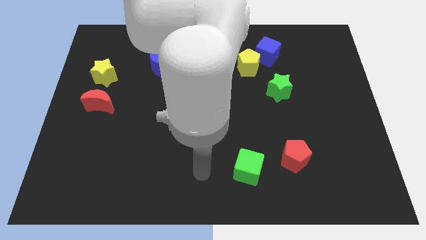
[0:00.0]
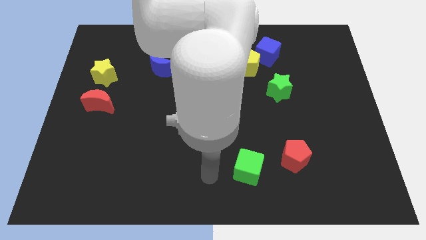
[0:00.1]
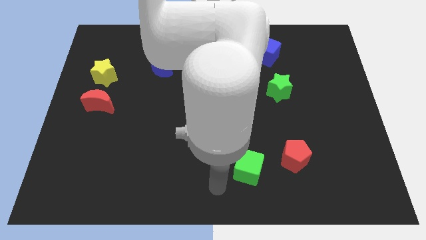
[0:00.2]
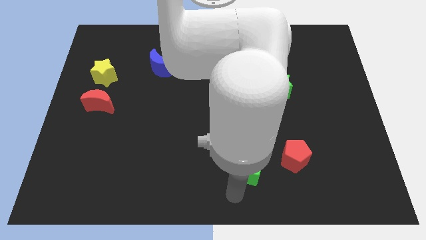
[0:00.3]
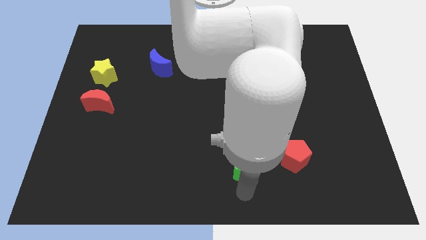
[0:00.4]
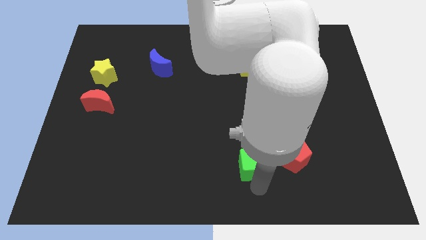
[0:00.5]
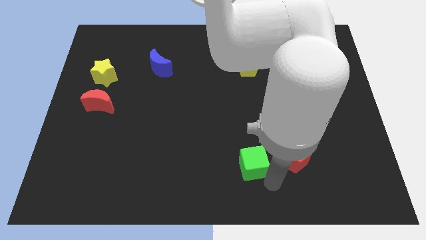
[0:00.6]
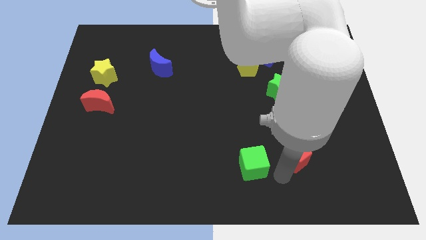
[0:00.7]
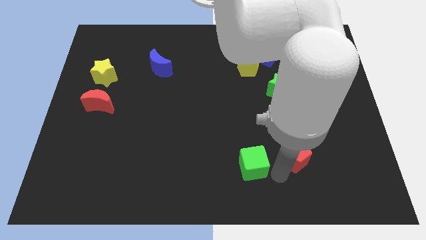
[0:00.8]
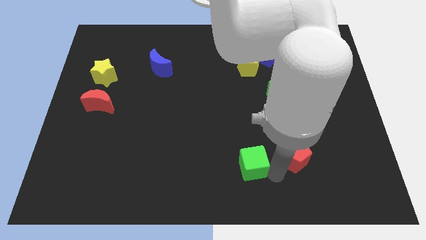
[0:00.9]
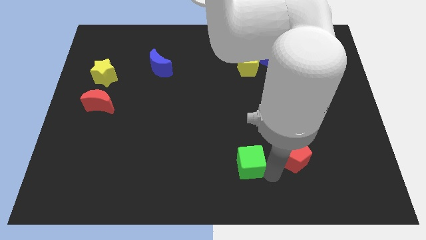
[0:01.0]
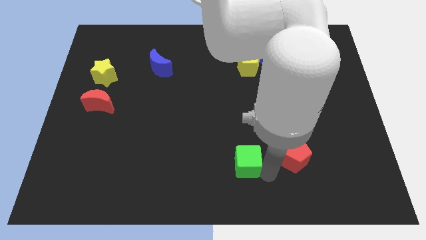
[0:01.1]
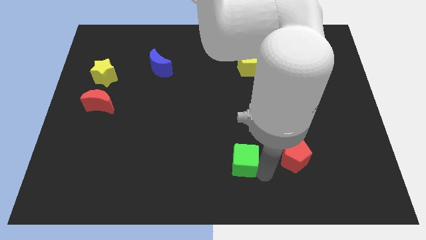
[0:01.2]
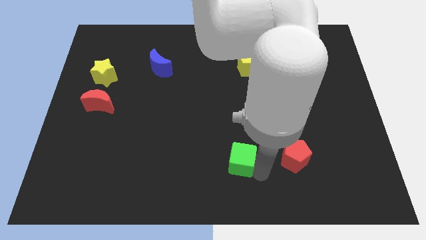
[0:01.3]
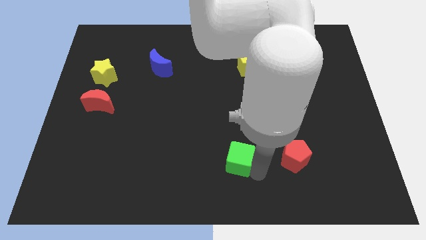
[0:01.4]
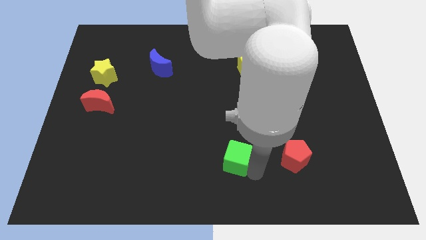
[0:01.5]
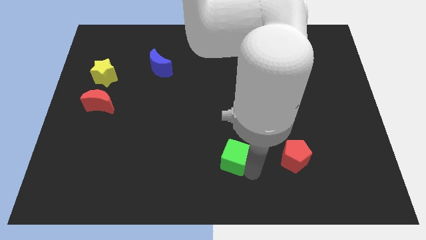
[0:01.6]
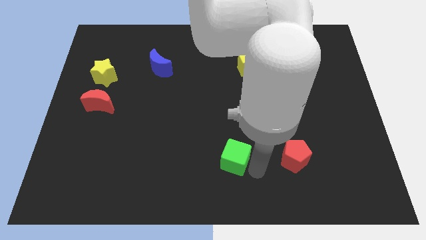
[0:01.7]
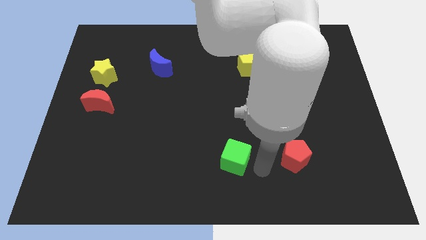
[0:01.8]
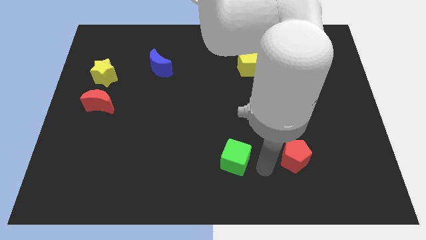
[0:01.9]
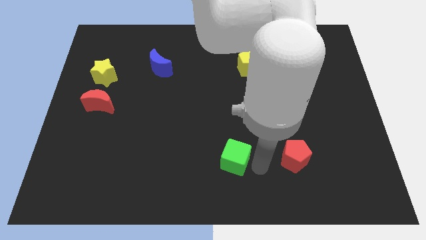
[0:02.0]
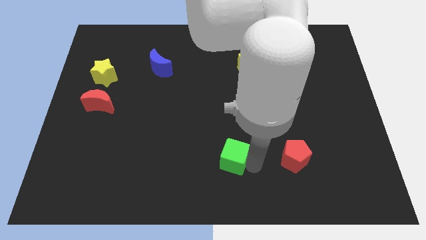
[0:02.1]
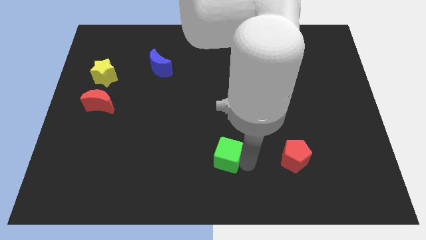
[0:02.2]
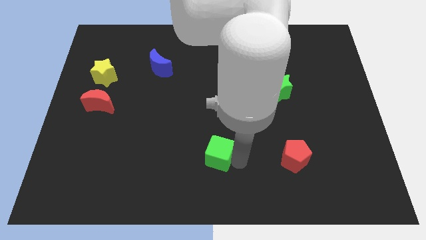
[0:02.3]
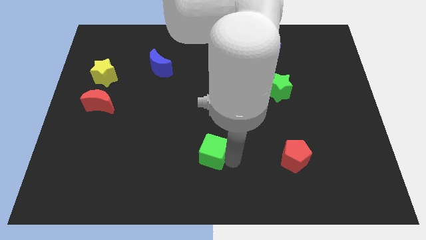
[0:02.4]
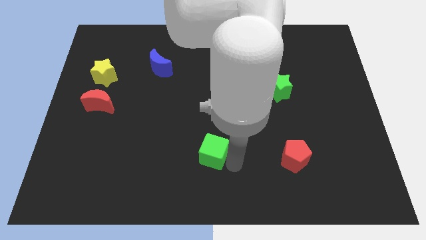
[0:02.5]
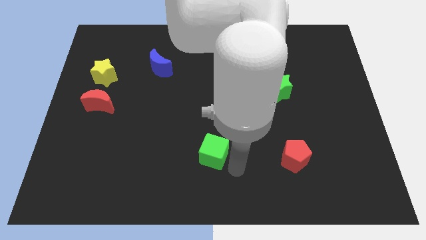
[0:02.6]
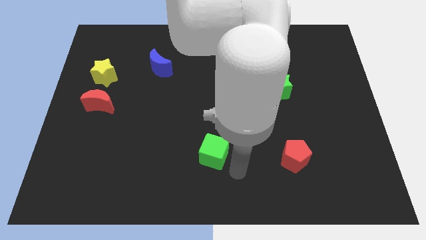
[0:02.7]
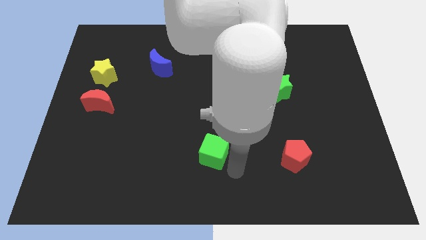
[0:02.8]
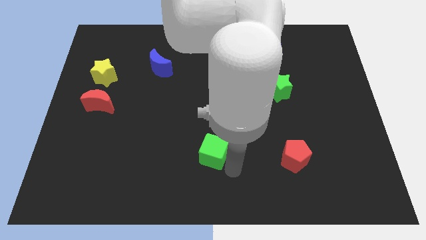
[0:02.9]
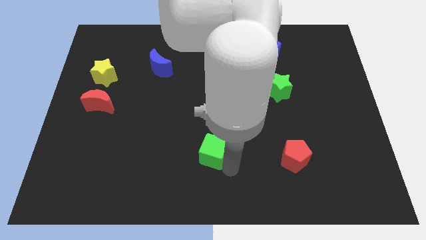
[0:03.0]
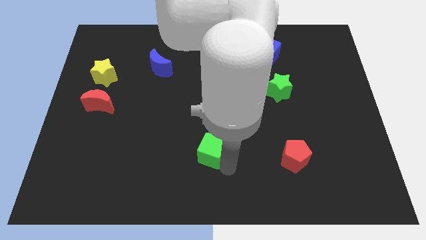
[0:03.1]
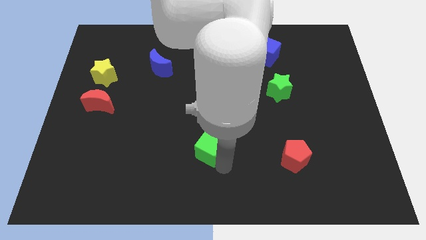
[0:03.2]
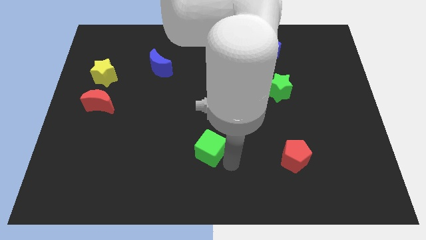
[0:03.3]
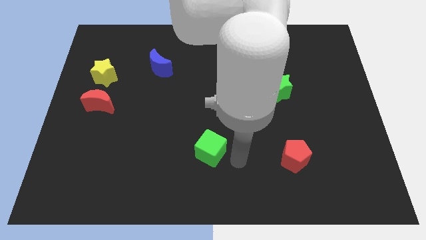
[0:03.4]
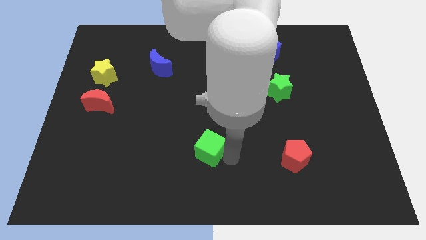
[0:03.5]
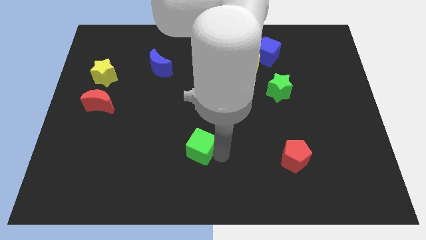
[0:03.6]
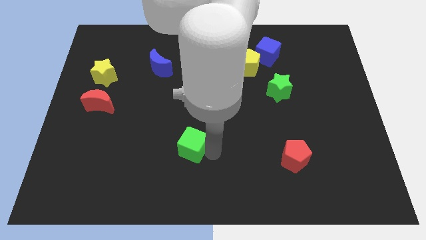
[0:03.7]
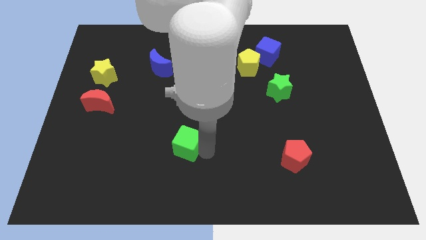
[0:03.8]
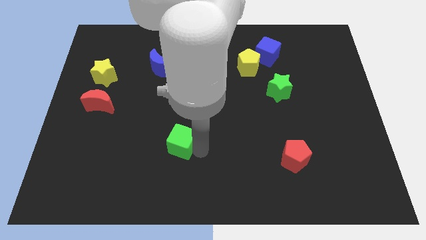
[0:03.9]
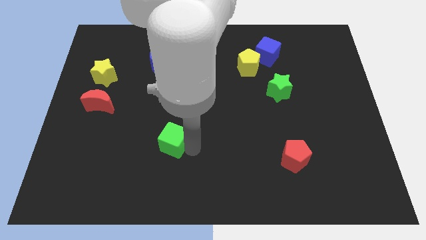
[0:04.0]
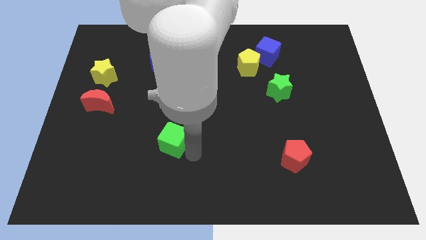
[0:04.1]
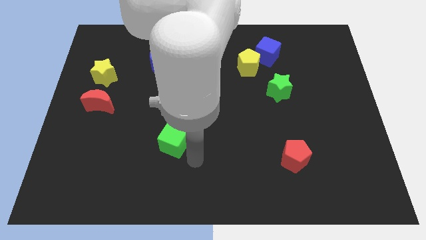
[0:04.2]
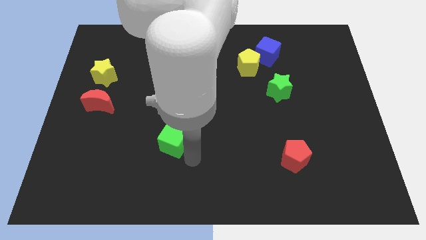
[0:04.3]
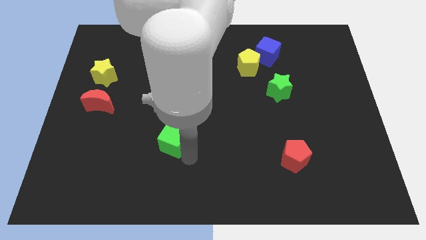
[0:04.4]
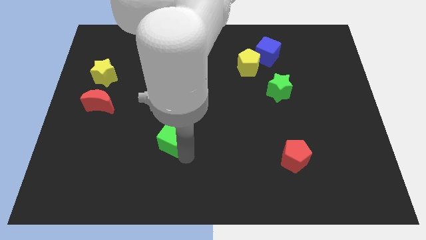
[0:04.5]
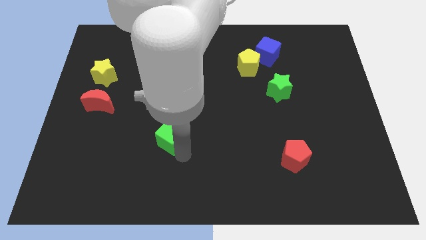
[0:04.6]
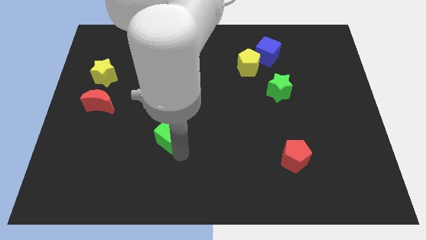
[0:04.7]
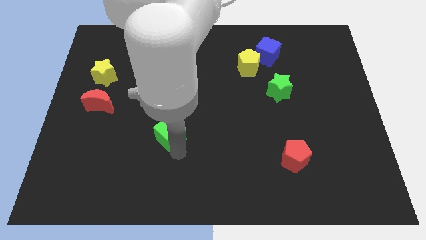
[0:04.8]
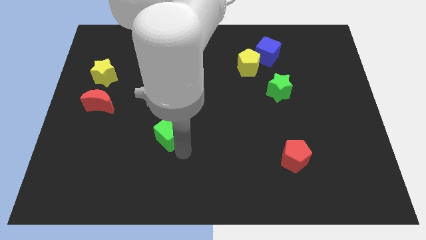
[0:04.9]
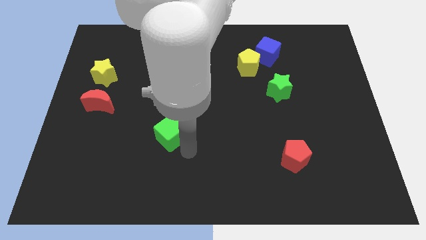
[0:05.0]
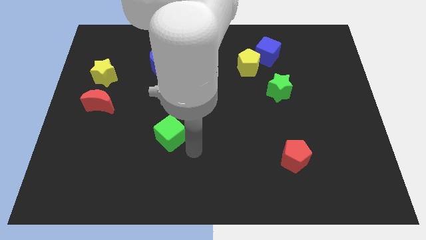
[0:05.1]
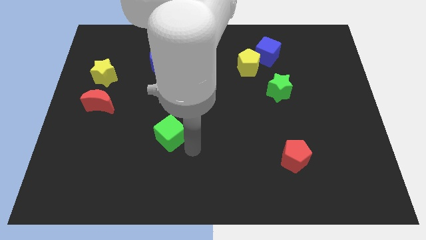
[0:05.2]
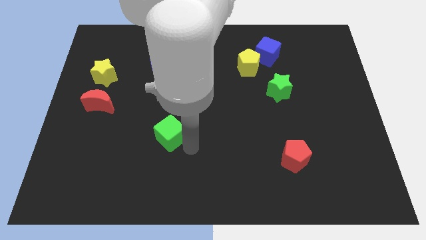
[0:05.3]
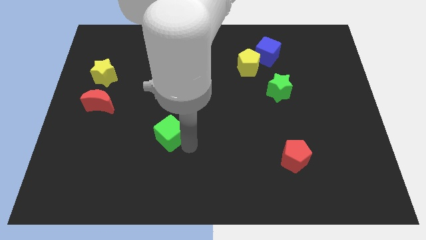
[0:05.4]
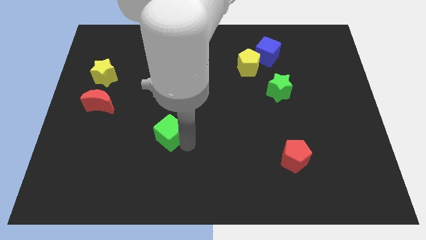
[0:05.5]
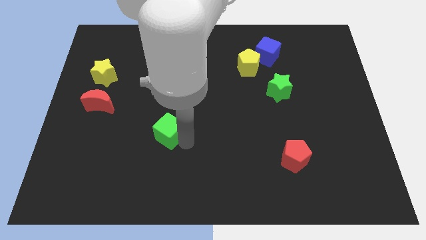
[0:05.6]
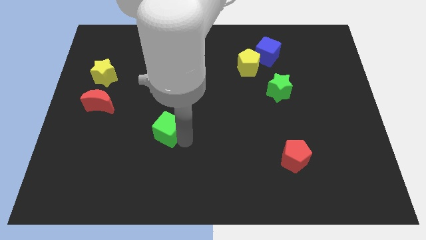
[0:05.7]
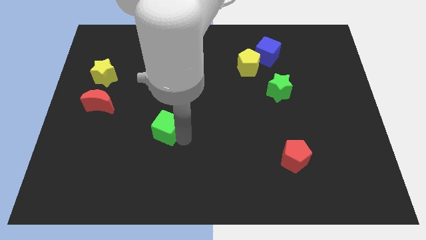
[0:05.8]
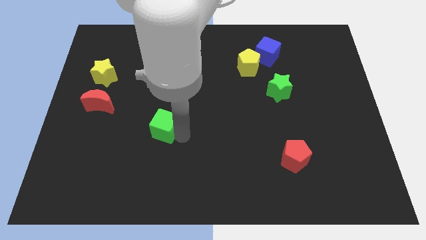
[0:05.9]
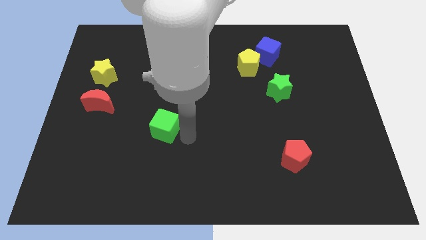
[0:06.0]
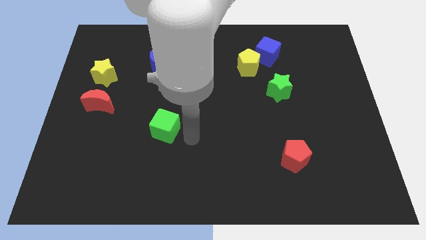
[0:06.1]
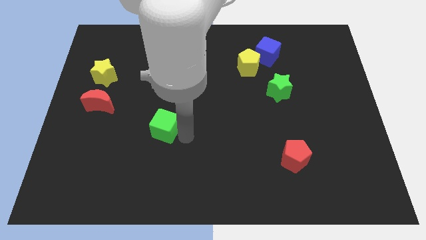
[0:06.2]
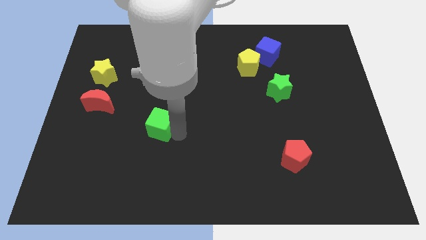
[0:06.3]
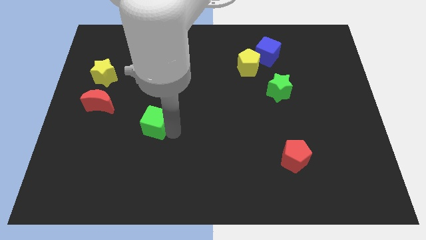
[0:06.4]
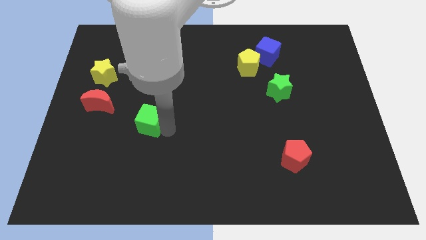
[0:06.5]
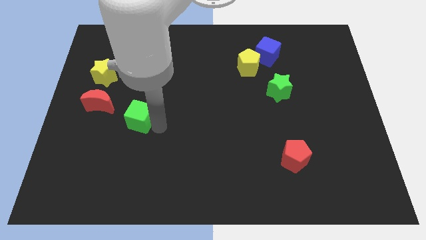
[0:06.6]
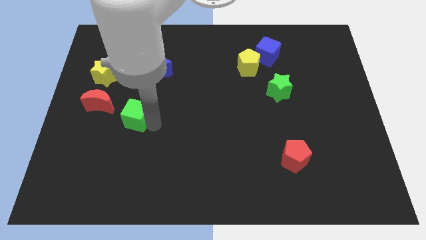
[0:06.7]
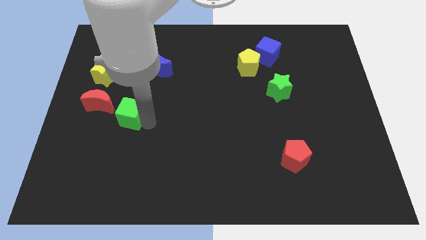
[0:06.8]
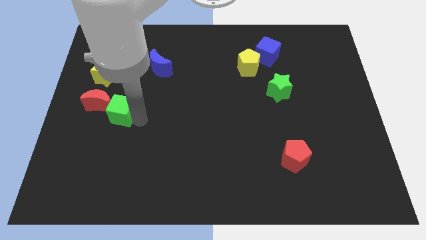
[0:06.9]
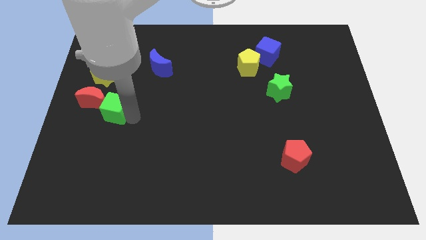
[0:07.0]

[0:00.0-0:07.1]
slide the green cube to the red moon

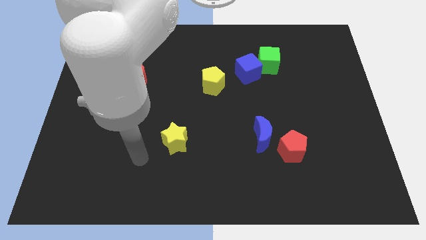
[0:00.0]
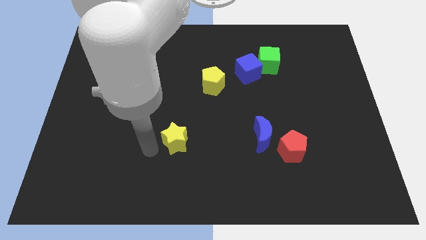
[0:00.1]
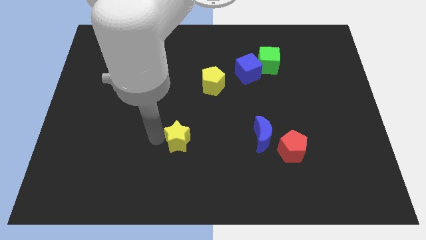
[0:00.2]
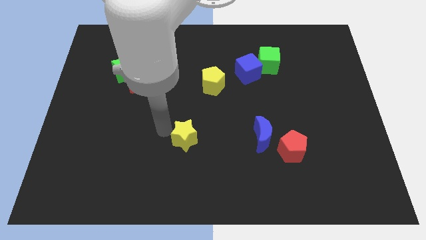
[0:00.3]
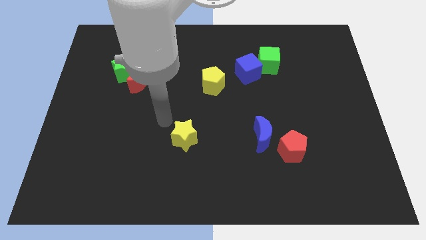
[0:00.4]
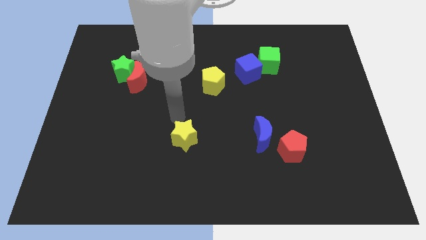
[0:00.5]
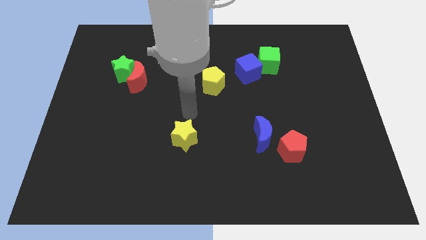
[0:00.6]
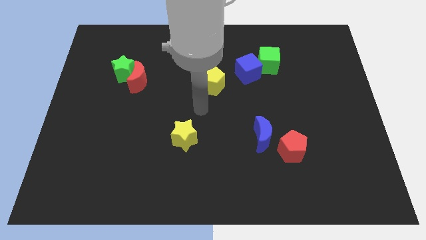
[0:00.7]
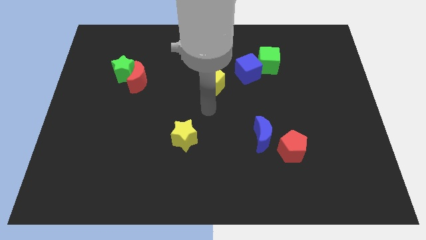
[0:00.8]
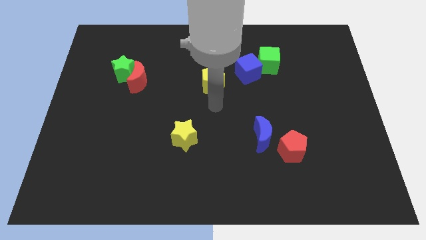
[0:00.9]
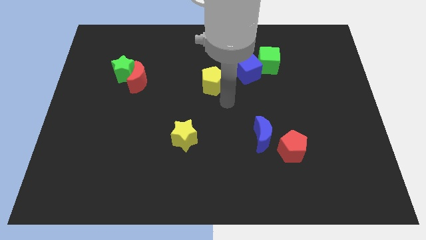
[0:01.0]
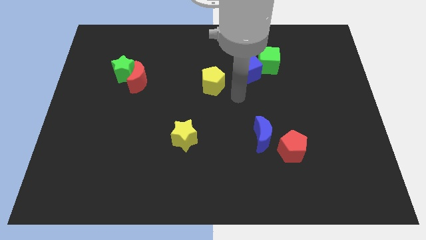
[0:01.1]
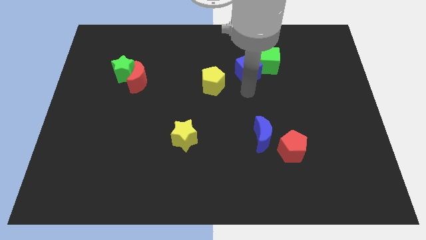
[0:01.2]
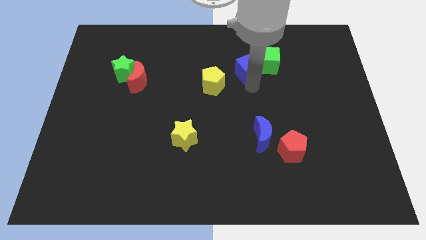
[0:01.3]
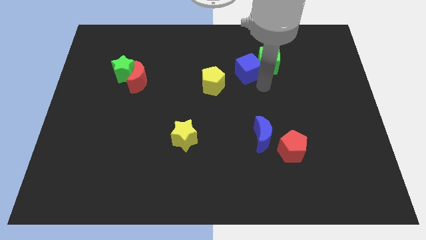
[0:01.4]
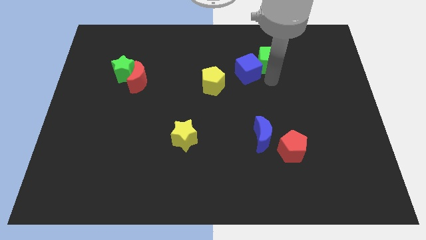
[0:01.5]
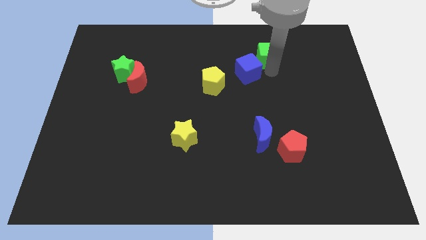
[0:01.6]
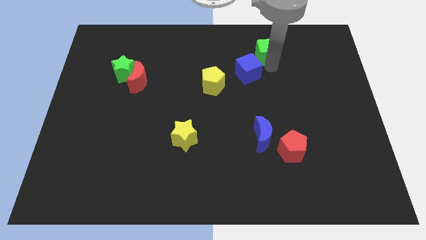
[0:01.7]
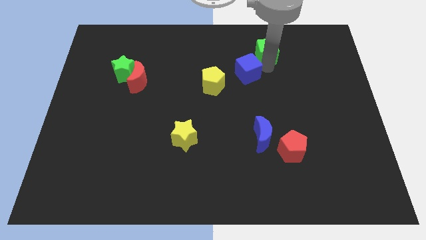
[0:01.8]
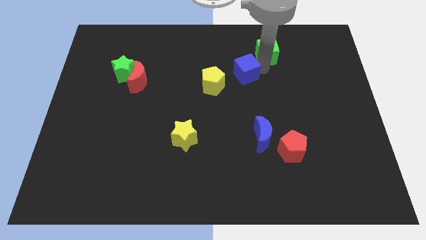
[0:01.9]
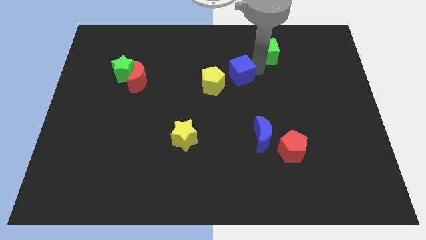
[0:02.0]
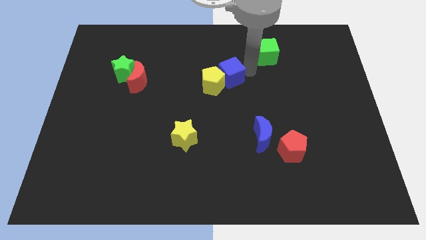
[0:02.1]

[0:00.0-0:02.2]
put the blue cube towards the yellow pentagon
